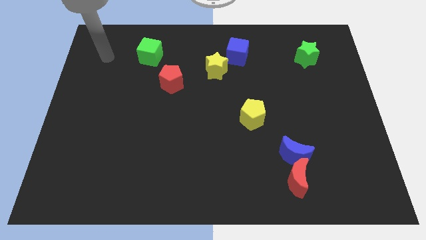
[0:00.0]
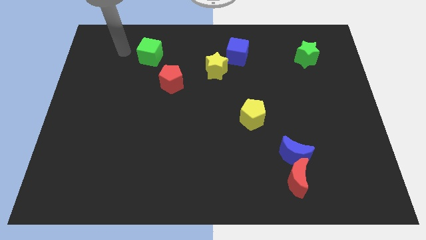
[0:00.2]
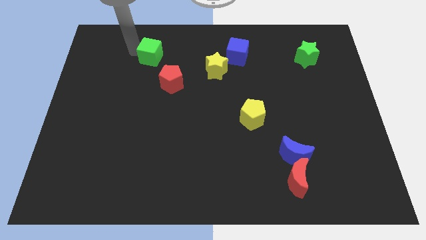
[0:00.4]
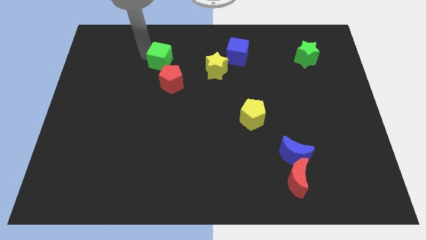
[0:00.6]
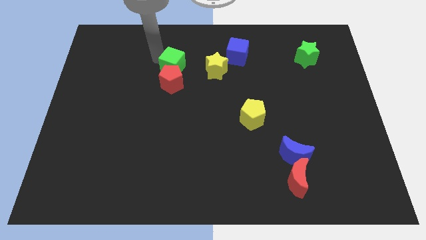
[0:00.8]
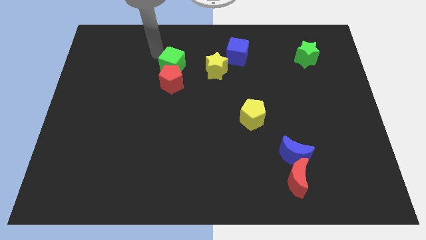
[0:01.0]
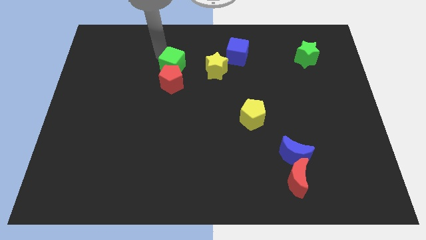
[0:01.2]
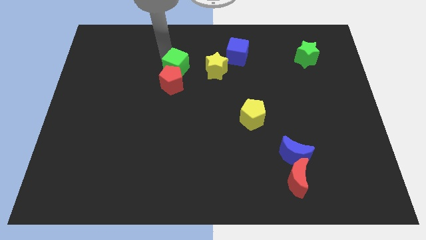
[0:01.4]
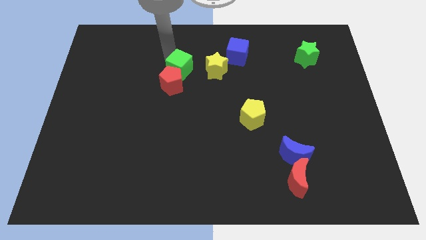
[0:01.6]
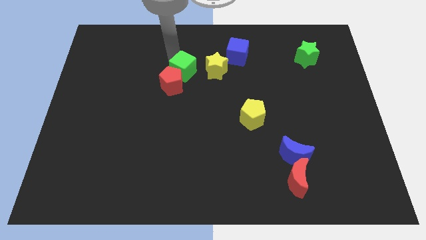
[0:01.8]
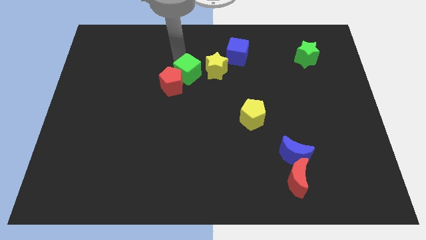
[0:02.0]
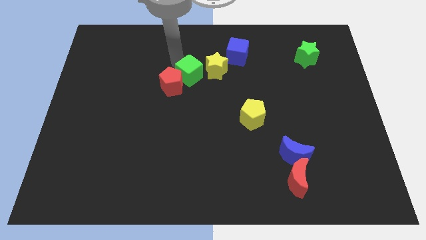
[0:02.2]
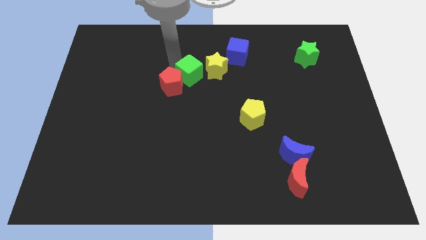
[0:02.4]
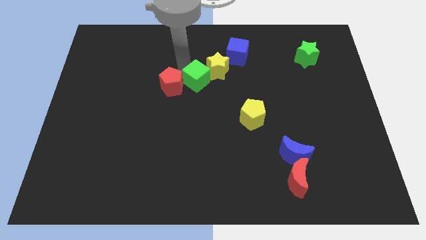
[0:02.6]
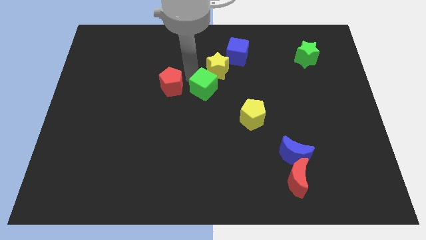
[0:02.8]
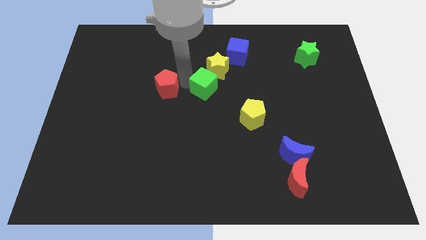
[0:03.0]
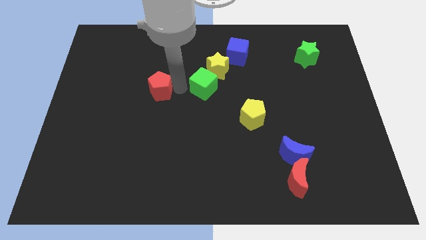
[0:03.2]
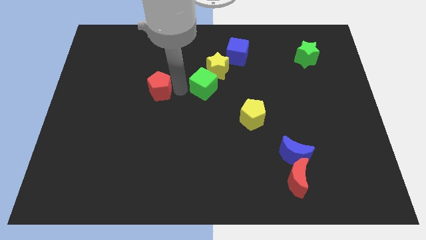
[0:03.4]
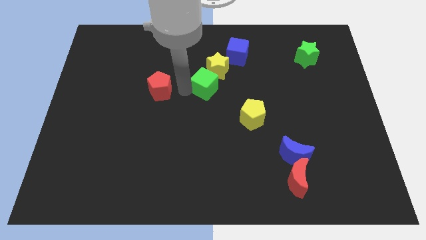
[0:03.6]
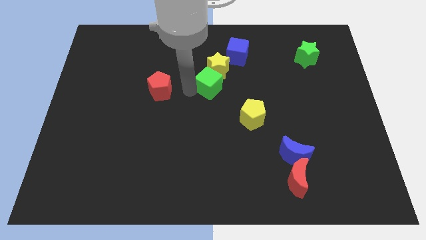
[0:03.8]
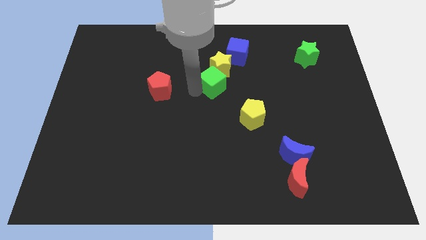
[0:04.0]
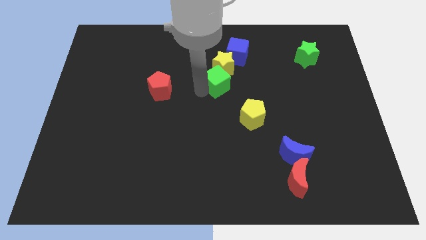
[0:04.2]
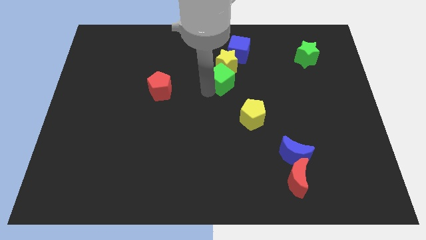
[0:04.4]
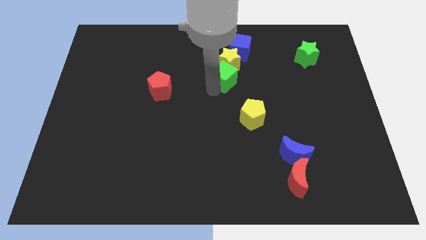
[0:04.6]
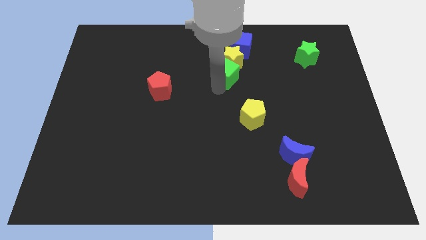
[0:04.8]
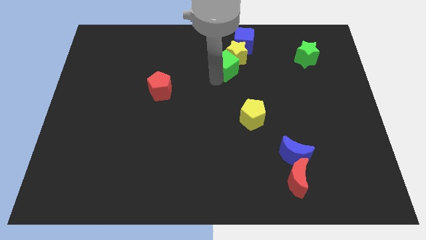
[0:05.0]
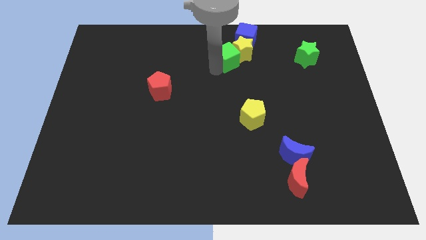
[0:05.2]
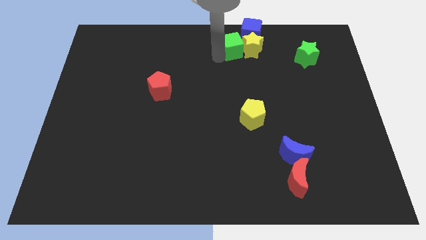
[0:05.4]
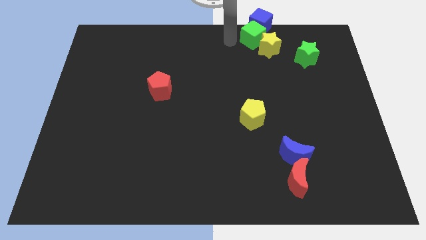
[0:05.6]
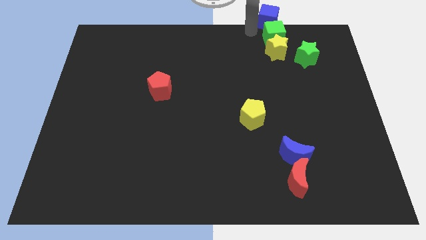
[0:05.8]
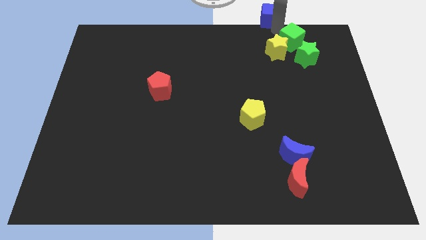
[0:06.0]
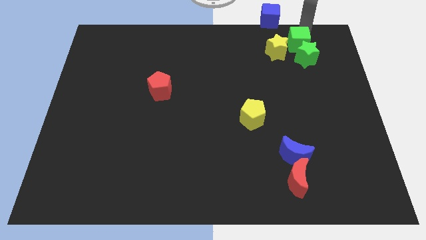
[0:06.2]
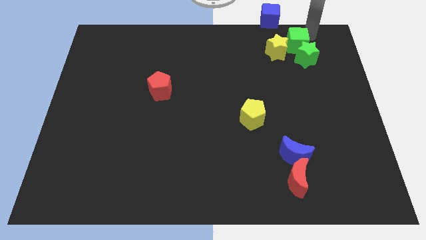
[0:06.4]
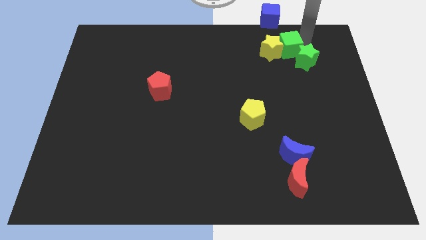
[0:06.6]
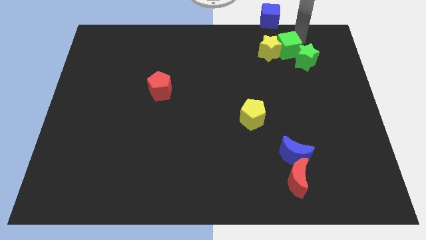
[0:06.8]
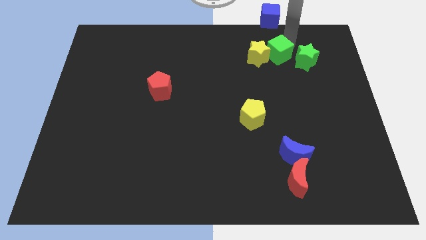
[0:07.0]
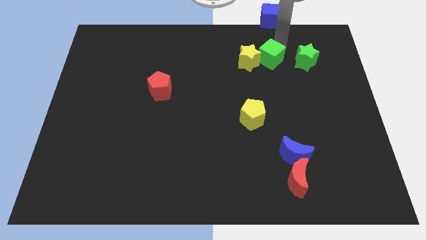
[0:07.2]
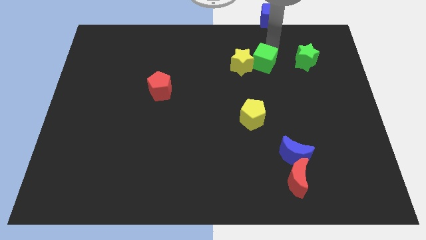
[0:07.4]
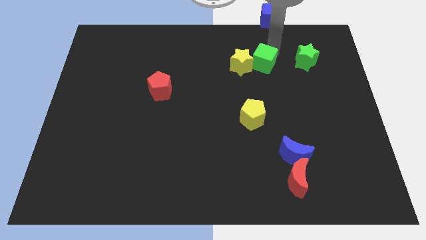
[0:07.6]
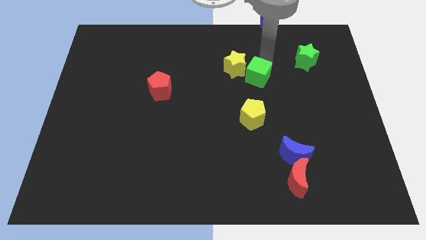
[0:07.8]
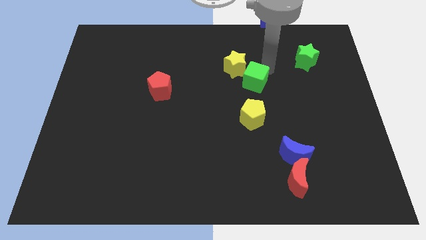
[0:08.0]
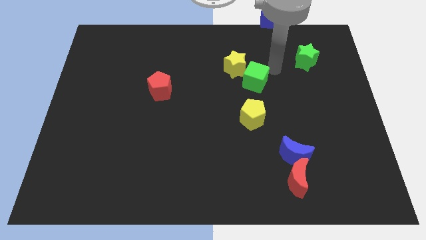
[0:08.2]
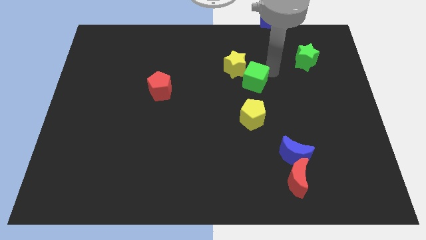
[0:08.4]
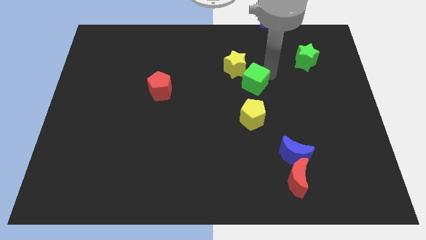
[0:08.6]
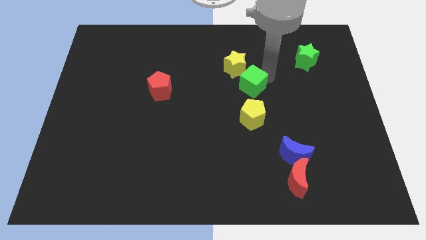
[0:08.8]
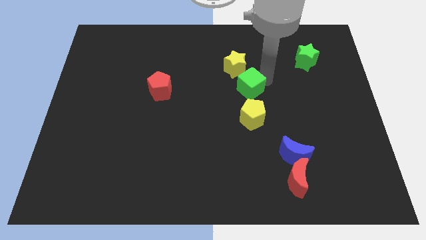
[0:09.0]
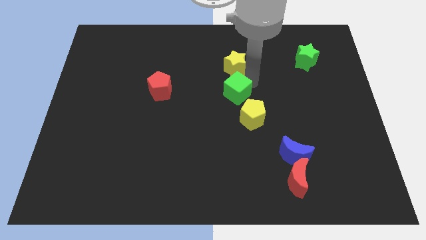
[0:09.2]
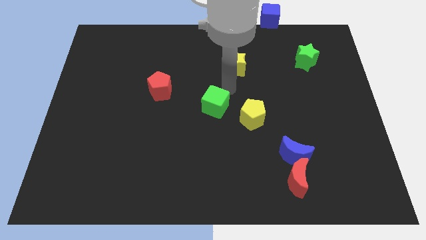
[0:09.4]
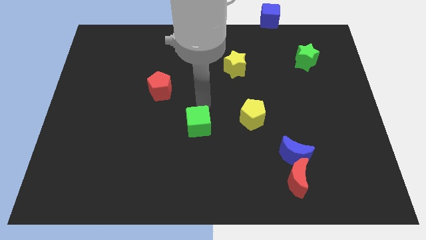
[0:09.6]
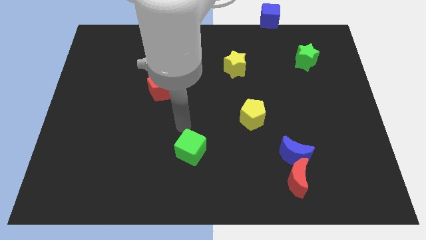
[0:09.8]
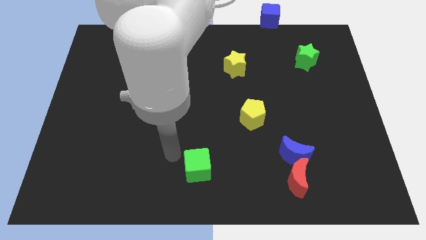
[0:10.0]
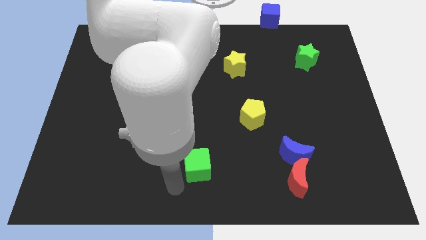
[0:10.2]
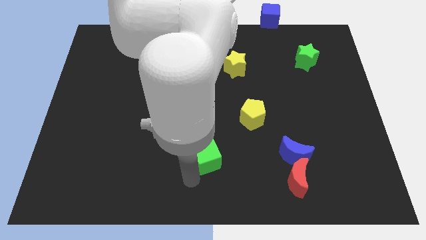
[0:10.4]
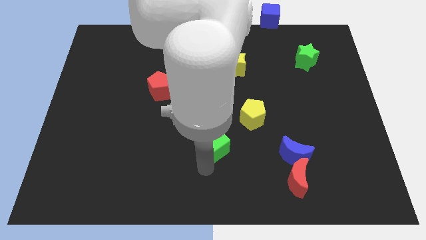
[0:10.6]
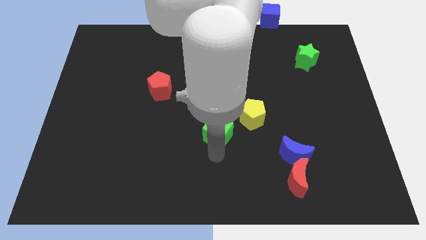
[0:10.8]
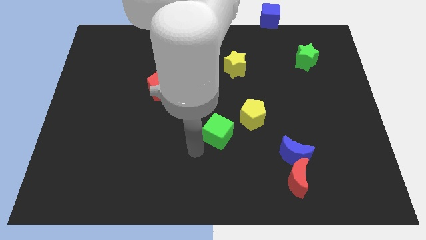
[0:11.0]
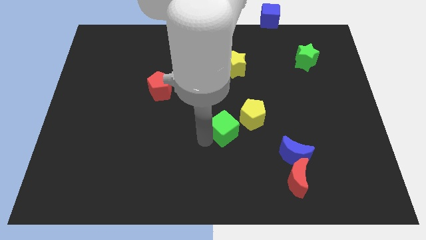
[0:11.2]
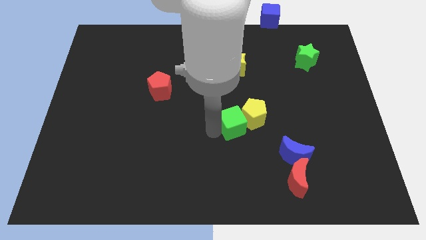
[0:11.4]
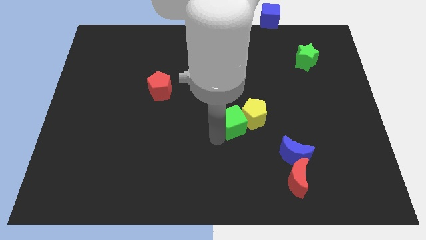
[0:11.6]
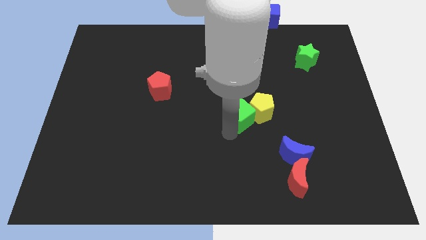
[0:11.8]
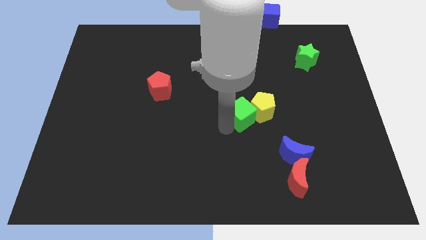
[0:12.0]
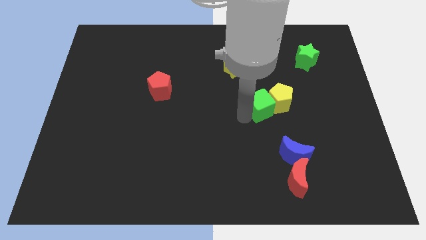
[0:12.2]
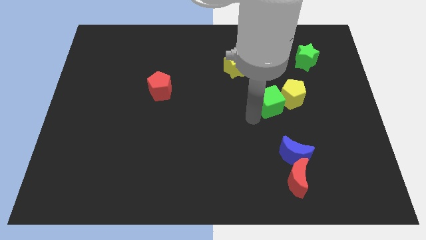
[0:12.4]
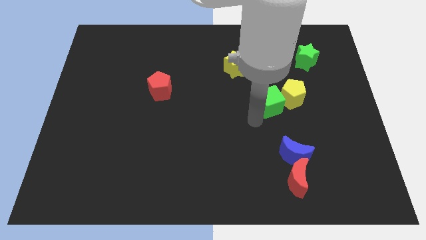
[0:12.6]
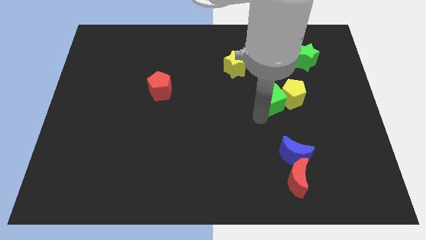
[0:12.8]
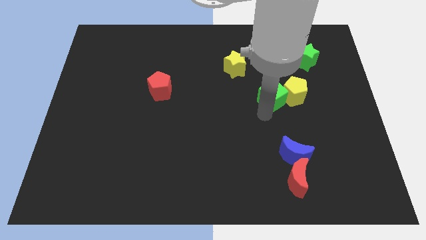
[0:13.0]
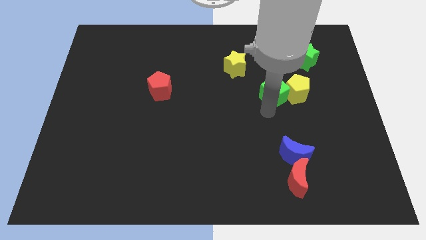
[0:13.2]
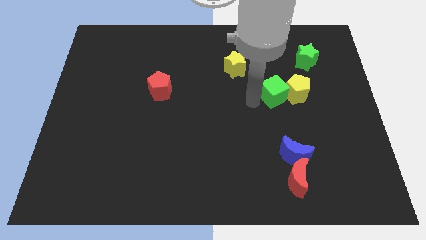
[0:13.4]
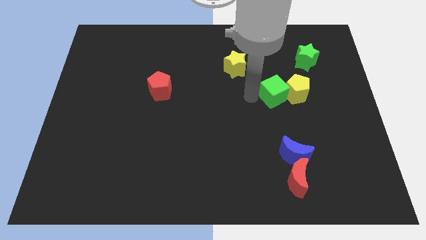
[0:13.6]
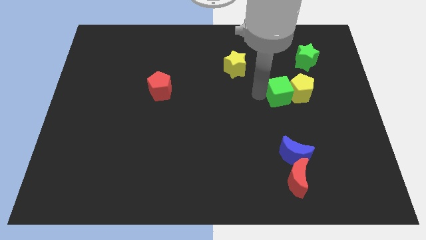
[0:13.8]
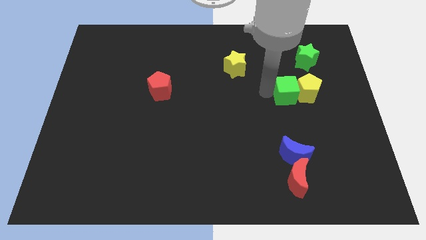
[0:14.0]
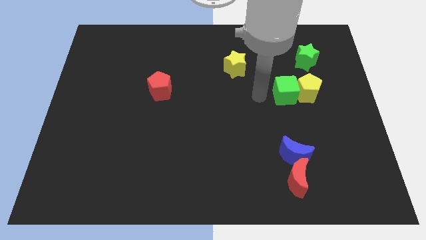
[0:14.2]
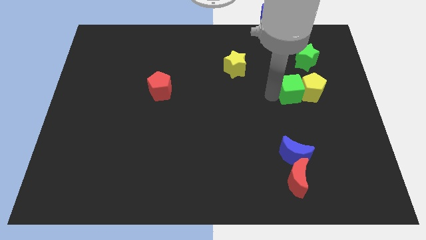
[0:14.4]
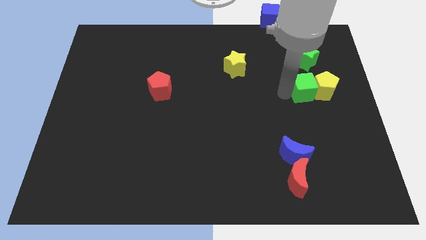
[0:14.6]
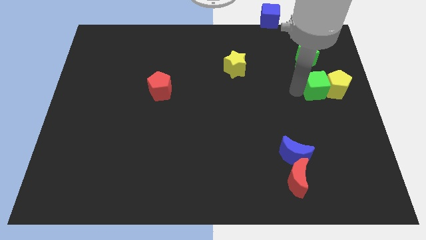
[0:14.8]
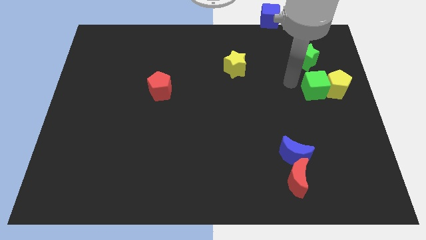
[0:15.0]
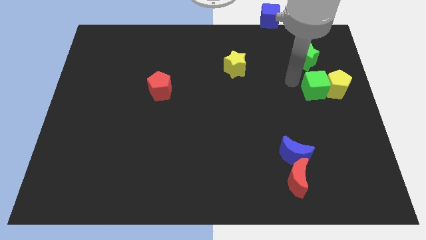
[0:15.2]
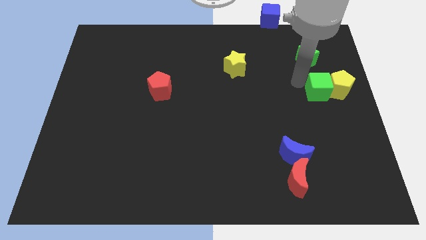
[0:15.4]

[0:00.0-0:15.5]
put the green cube to the right side
